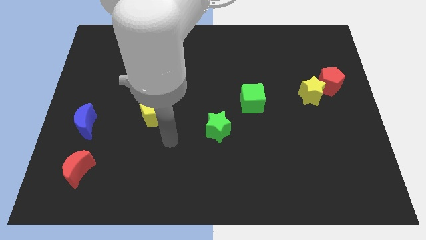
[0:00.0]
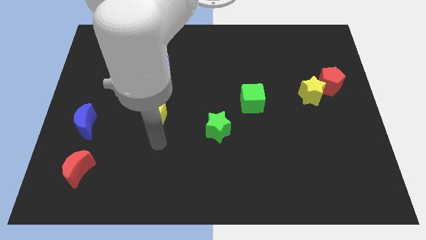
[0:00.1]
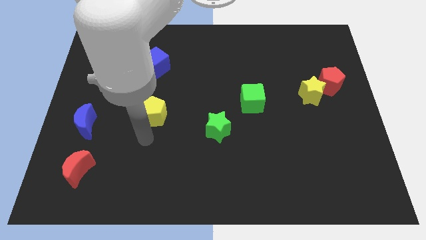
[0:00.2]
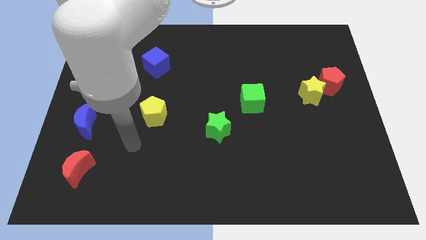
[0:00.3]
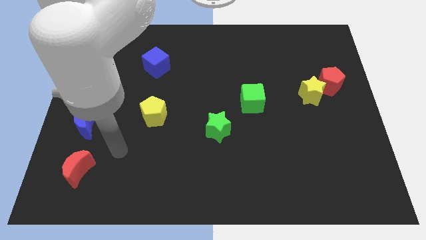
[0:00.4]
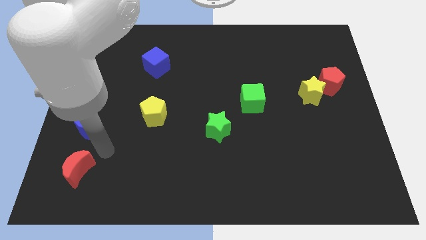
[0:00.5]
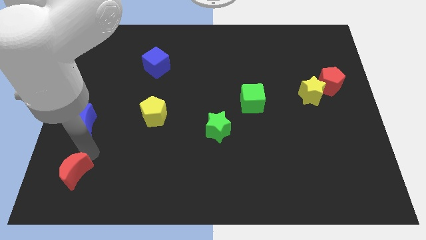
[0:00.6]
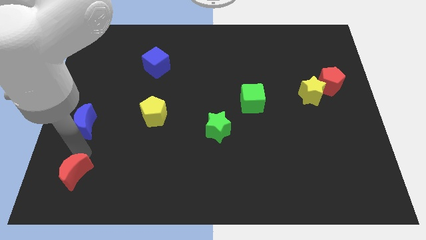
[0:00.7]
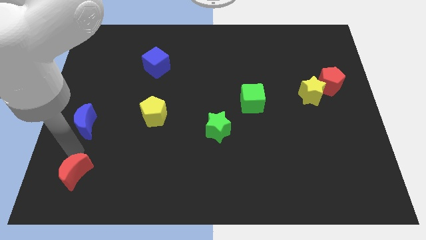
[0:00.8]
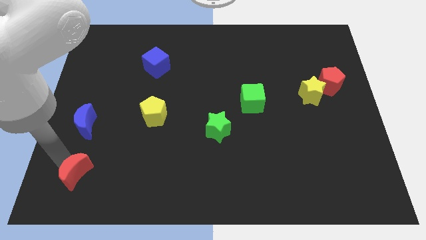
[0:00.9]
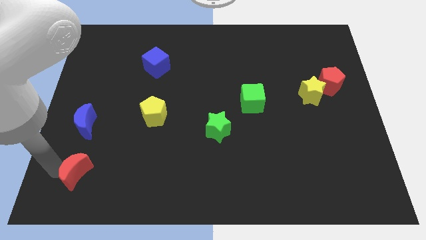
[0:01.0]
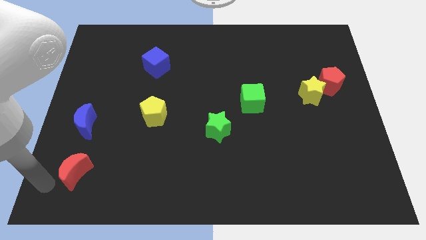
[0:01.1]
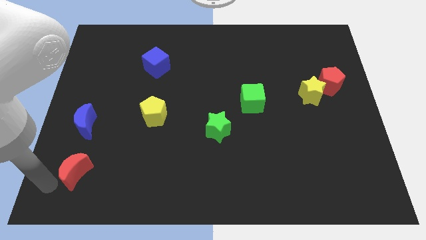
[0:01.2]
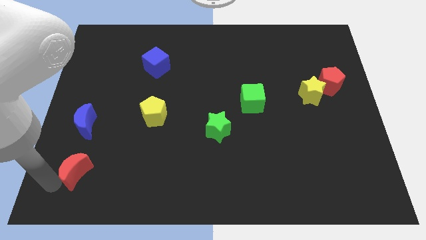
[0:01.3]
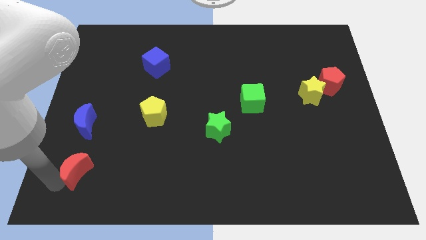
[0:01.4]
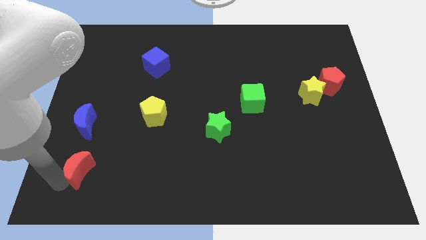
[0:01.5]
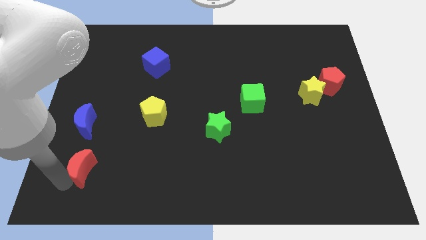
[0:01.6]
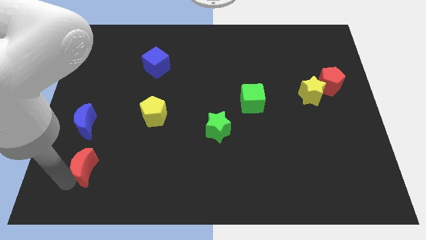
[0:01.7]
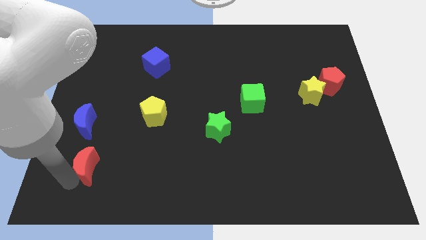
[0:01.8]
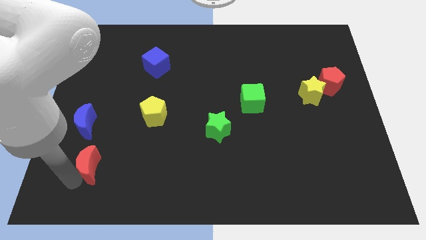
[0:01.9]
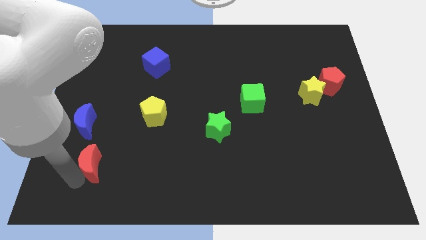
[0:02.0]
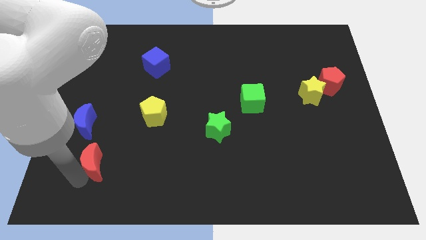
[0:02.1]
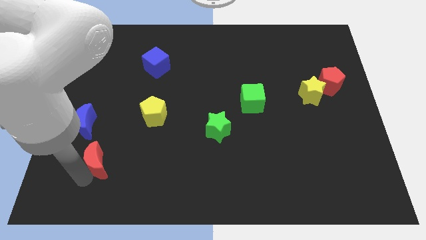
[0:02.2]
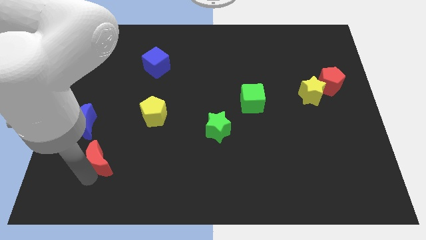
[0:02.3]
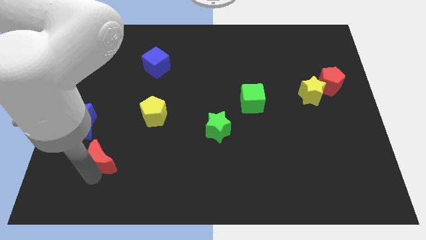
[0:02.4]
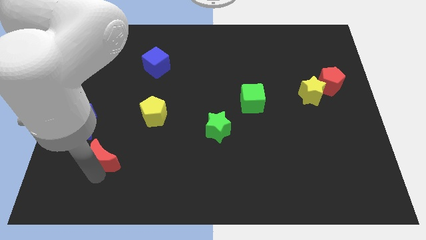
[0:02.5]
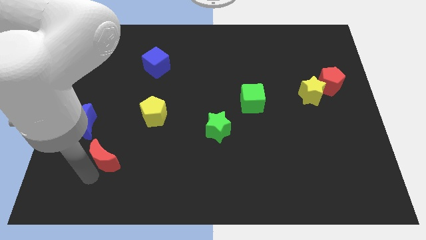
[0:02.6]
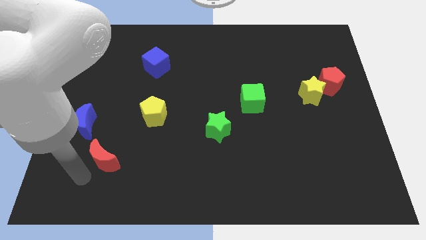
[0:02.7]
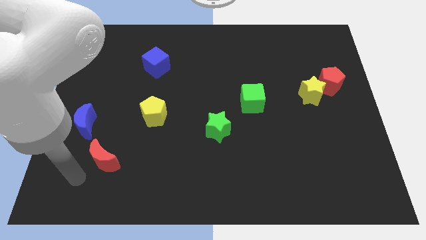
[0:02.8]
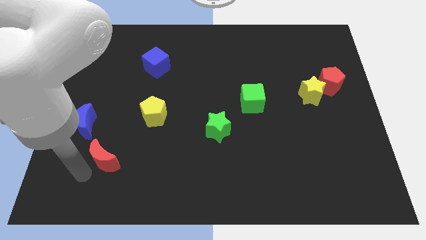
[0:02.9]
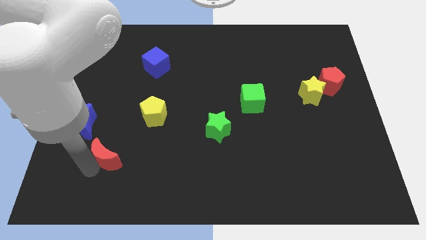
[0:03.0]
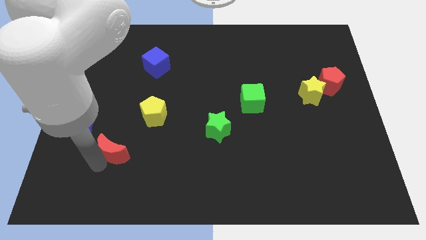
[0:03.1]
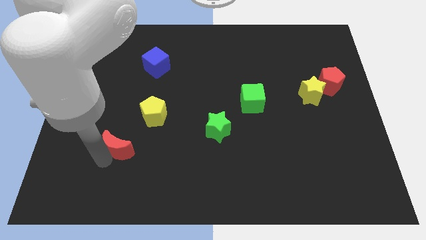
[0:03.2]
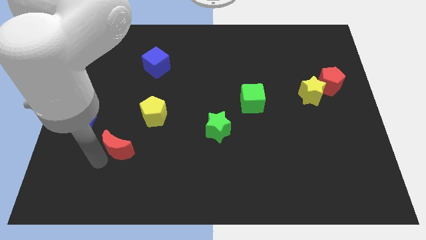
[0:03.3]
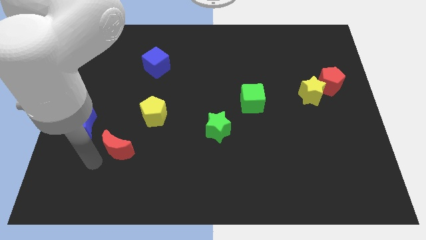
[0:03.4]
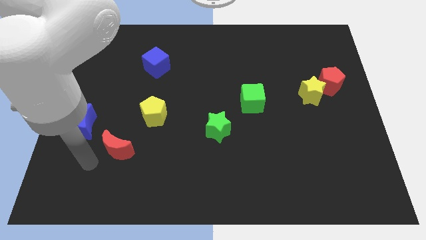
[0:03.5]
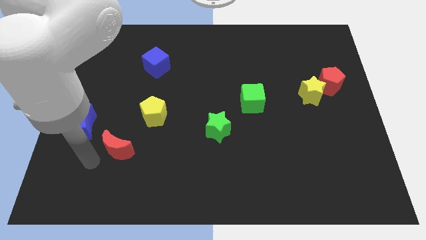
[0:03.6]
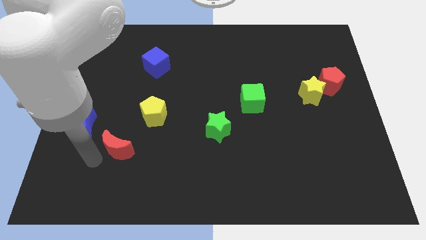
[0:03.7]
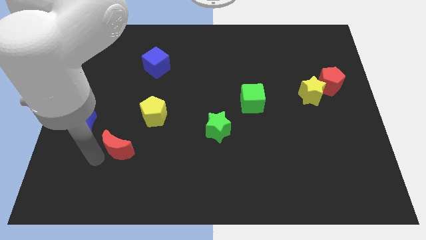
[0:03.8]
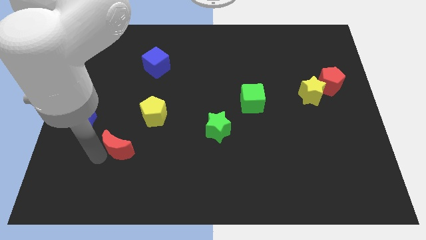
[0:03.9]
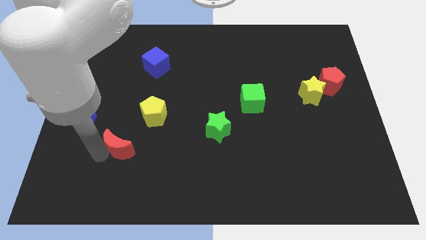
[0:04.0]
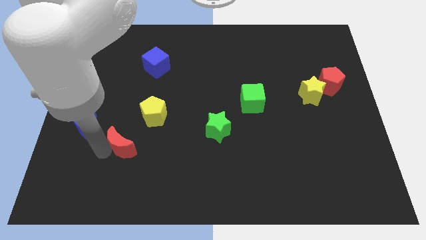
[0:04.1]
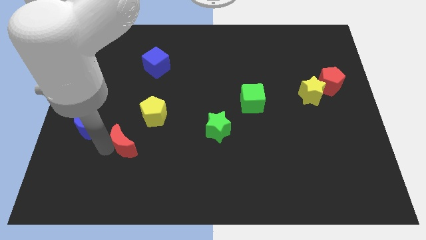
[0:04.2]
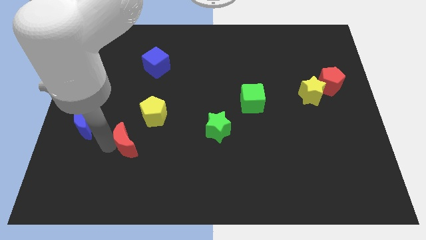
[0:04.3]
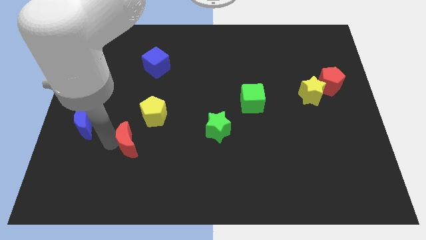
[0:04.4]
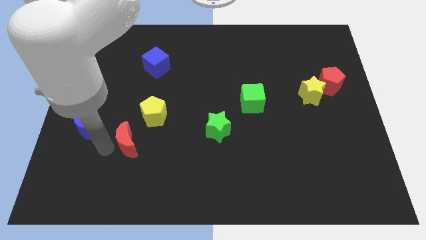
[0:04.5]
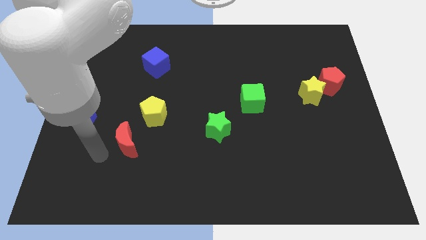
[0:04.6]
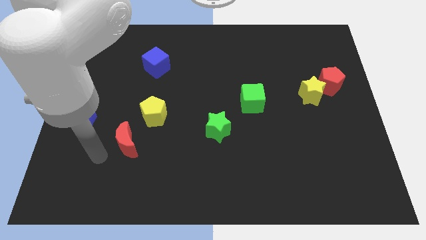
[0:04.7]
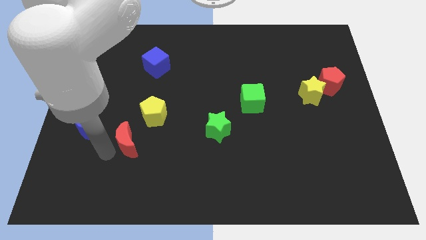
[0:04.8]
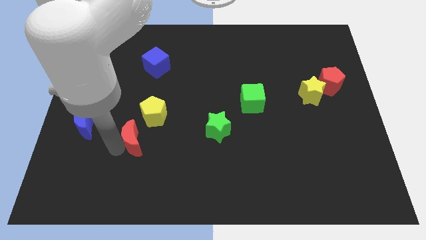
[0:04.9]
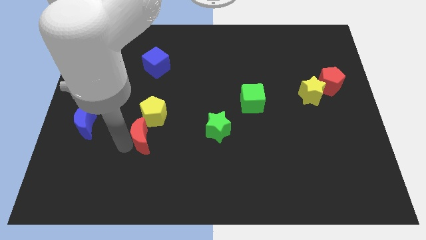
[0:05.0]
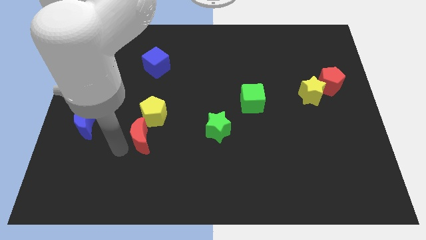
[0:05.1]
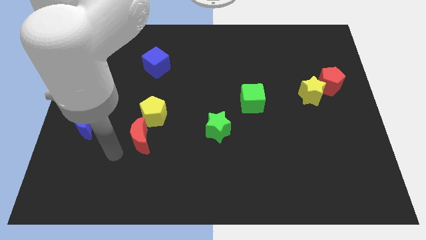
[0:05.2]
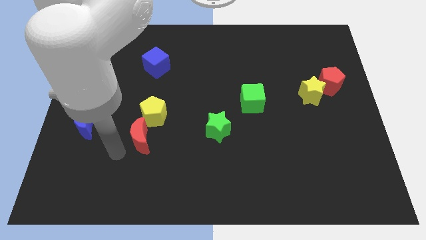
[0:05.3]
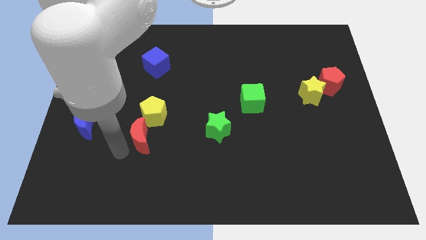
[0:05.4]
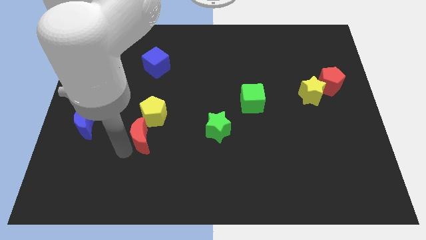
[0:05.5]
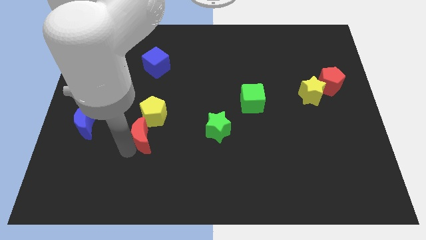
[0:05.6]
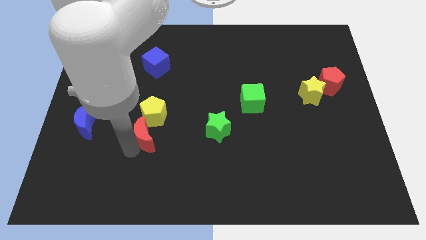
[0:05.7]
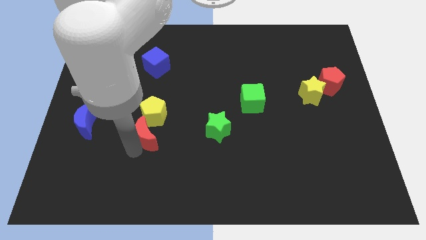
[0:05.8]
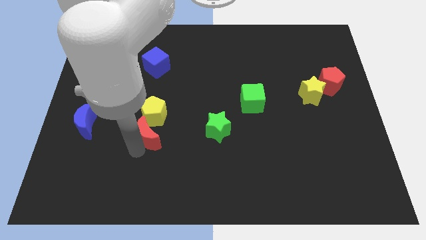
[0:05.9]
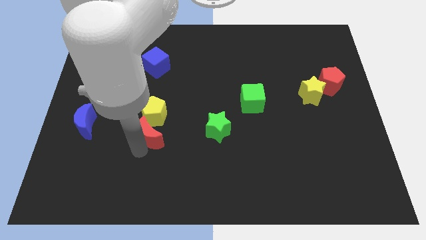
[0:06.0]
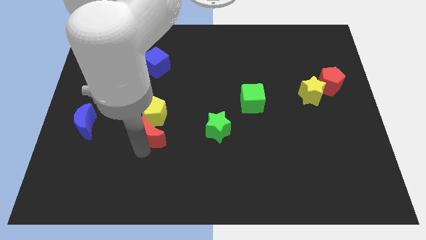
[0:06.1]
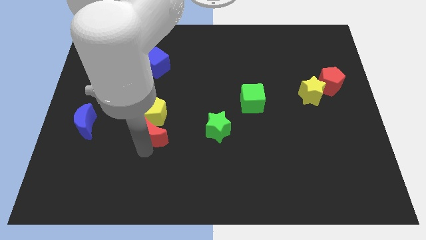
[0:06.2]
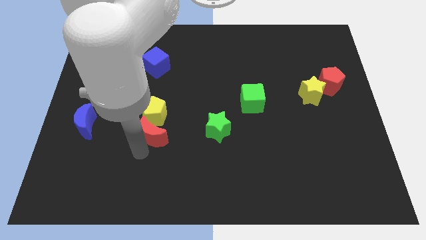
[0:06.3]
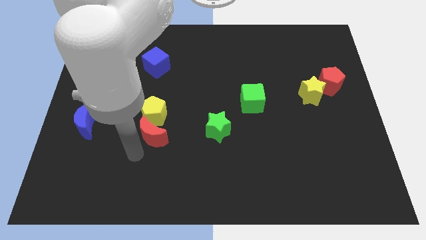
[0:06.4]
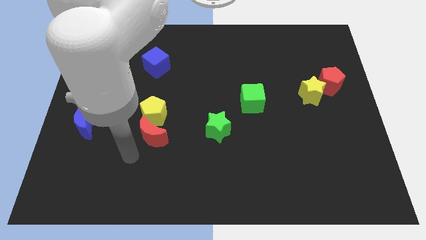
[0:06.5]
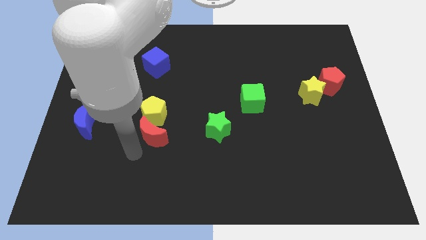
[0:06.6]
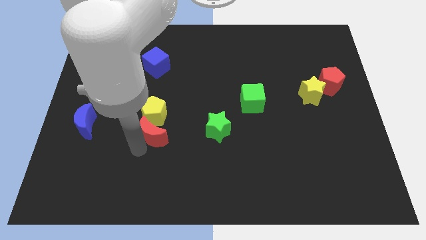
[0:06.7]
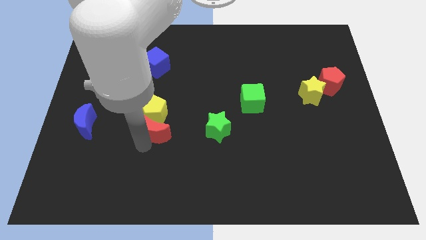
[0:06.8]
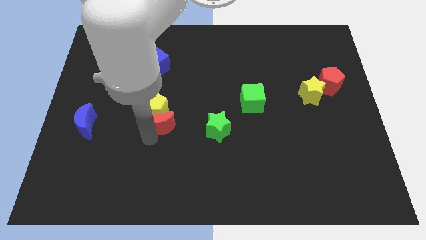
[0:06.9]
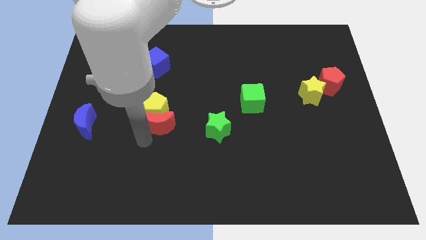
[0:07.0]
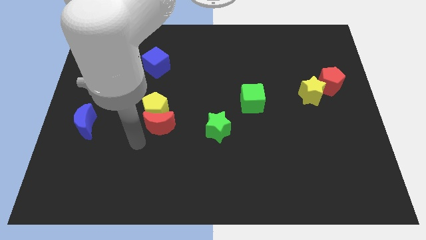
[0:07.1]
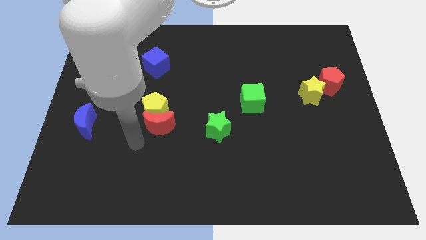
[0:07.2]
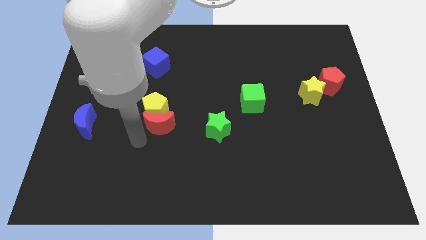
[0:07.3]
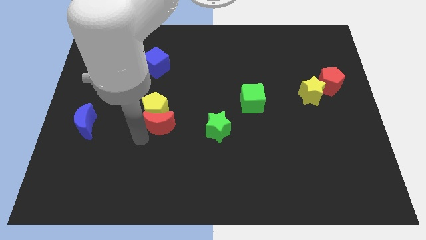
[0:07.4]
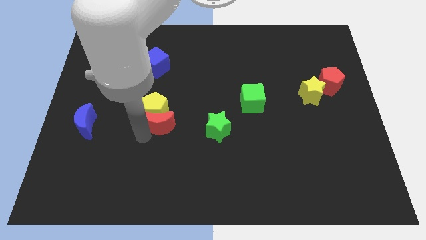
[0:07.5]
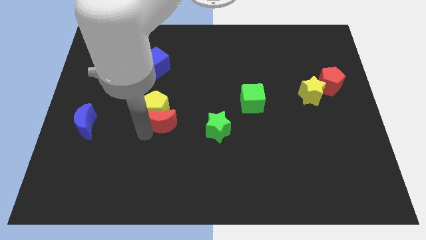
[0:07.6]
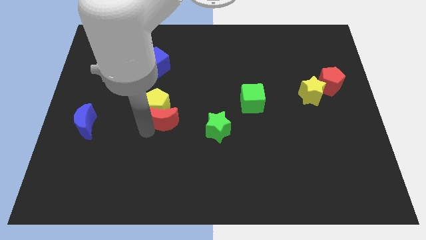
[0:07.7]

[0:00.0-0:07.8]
move the red moon up and right
